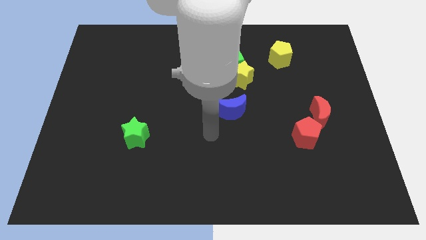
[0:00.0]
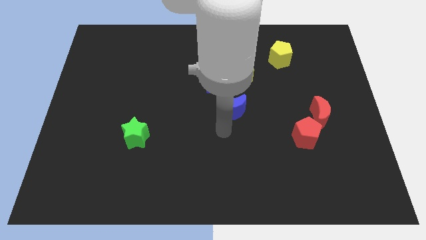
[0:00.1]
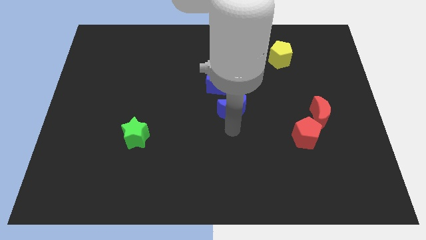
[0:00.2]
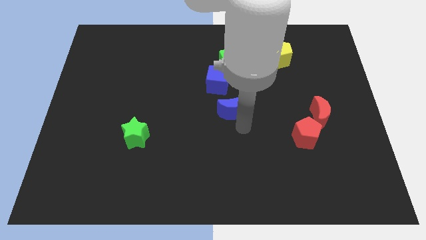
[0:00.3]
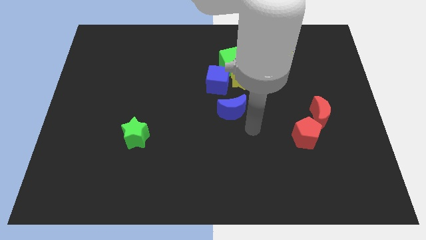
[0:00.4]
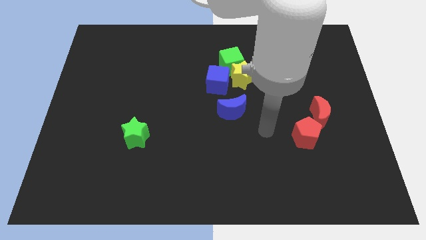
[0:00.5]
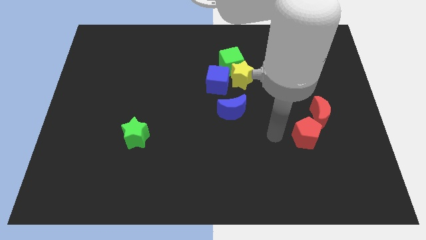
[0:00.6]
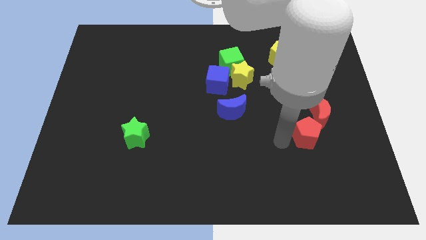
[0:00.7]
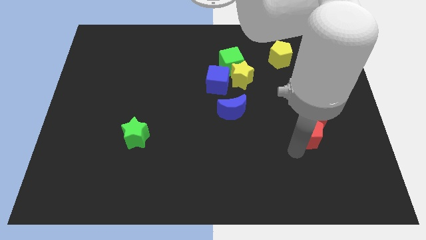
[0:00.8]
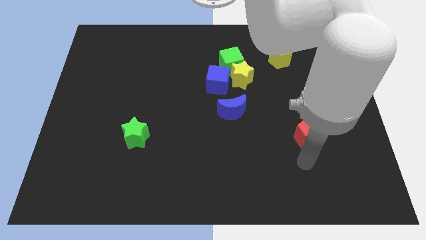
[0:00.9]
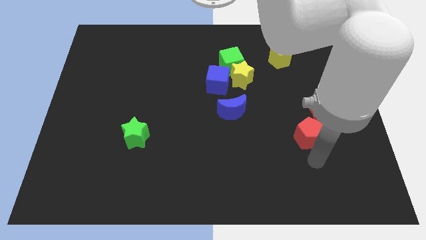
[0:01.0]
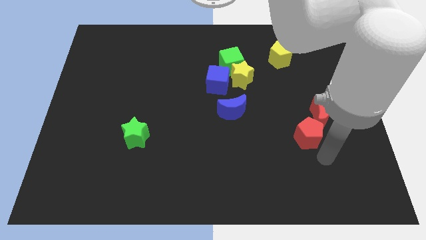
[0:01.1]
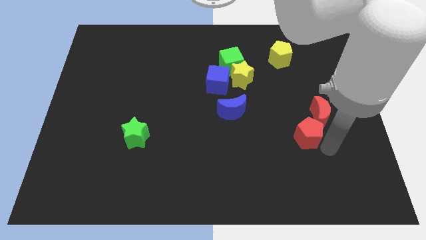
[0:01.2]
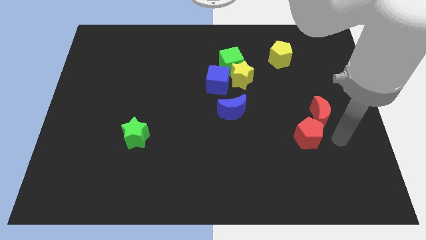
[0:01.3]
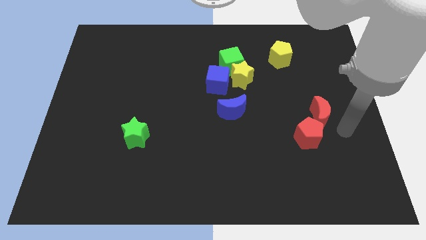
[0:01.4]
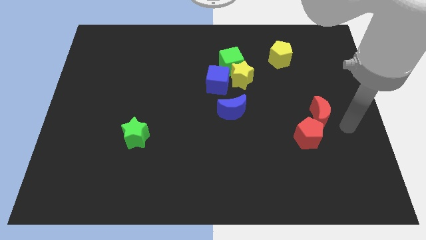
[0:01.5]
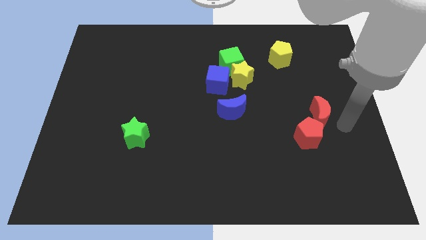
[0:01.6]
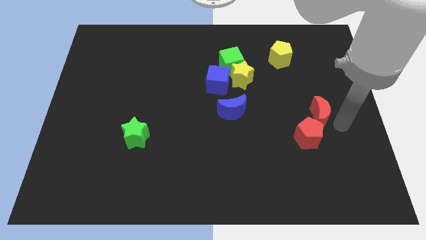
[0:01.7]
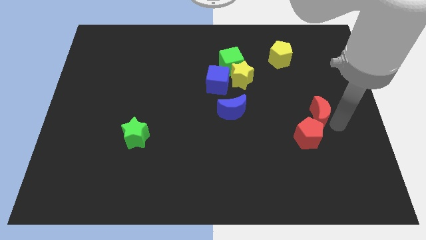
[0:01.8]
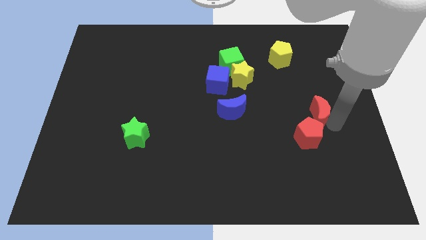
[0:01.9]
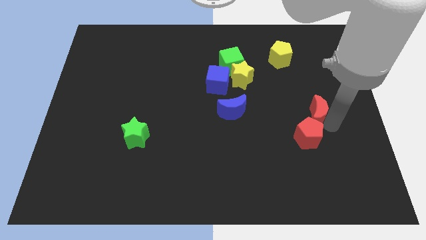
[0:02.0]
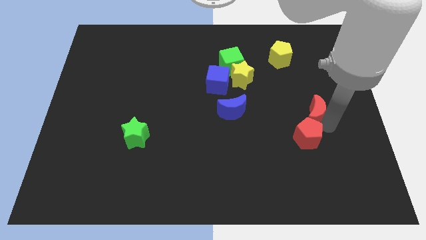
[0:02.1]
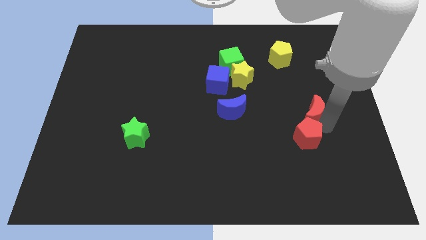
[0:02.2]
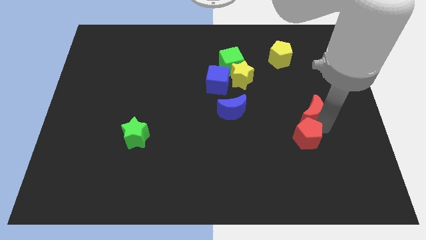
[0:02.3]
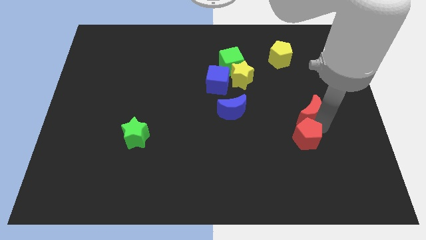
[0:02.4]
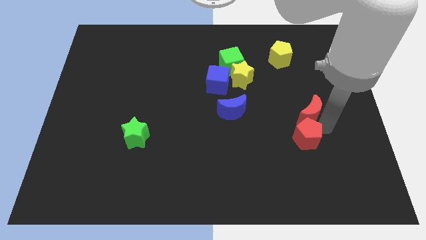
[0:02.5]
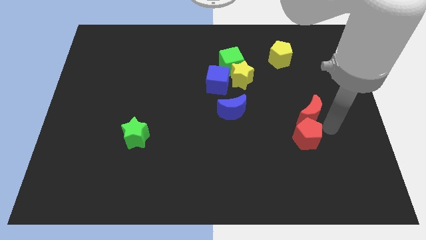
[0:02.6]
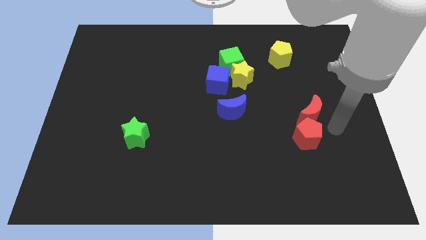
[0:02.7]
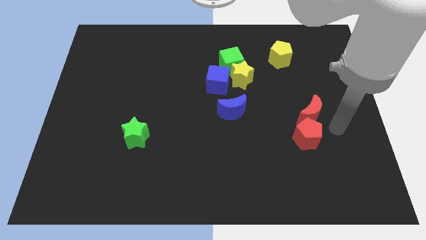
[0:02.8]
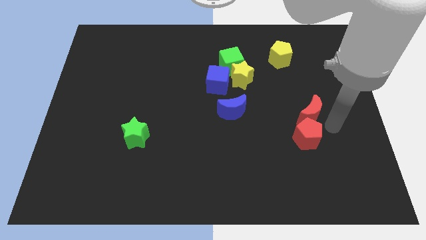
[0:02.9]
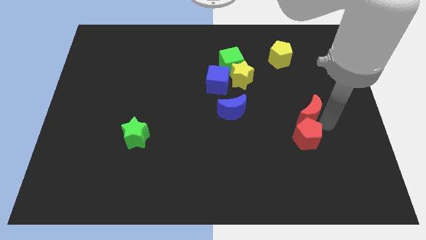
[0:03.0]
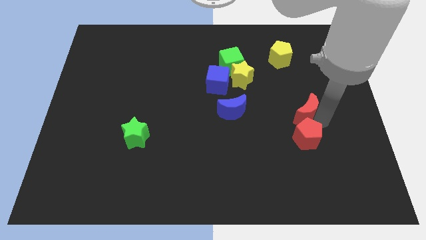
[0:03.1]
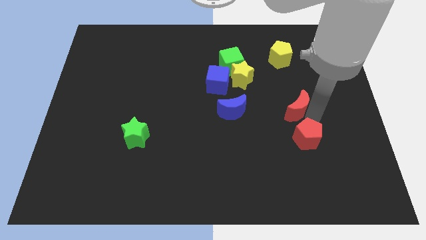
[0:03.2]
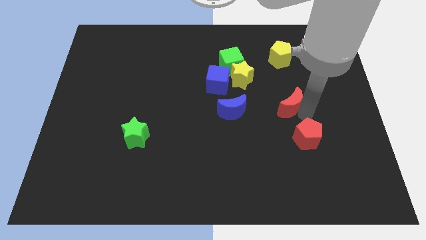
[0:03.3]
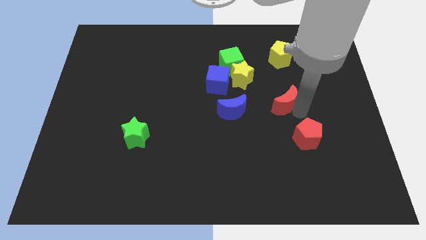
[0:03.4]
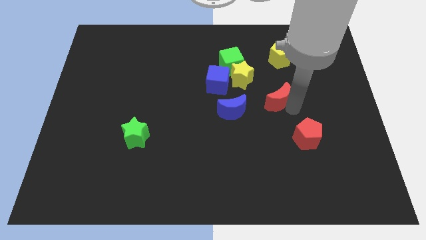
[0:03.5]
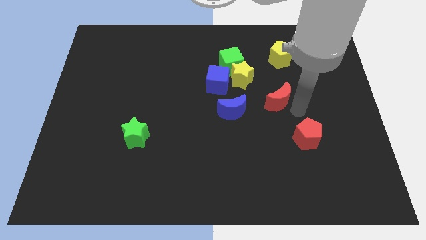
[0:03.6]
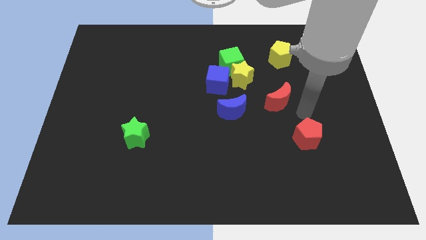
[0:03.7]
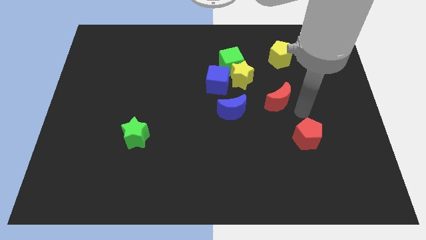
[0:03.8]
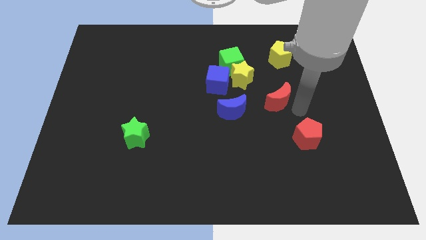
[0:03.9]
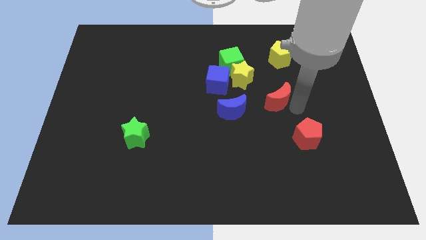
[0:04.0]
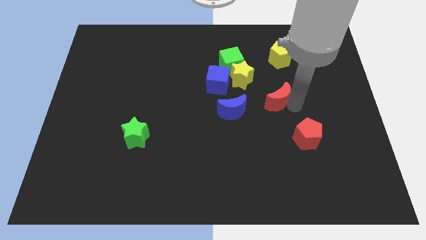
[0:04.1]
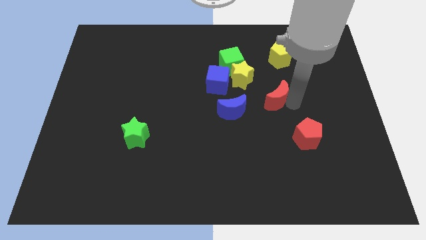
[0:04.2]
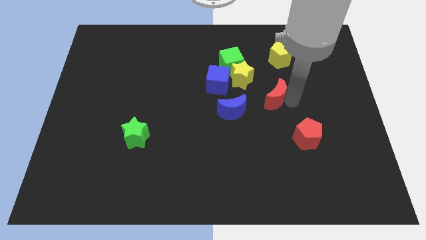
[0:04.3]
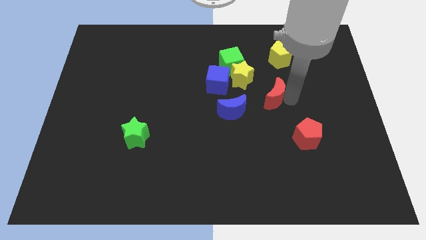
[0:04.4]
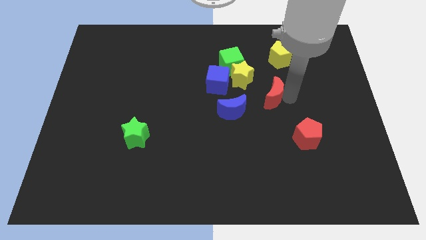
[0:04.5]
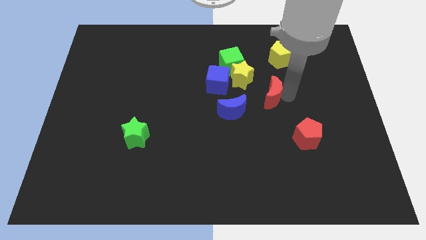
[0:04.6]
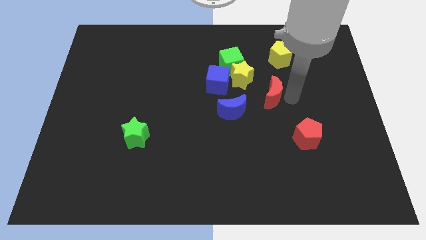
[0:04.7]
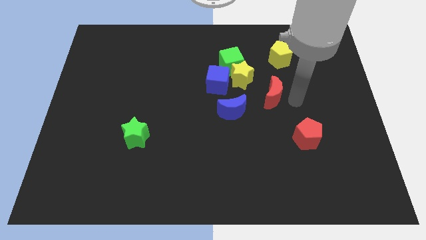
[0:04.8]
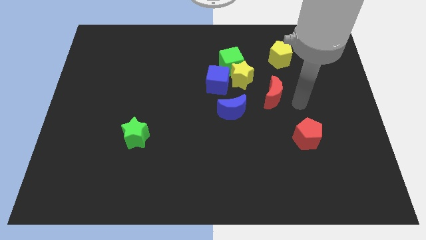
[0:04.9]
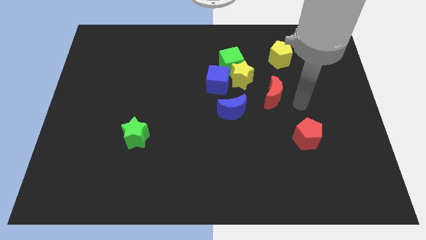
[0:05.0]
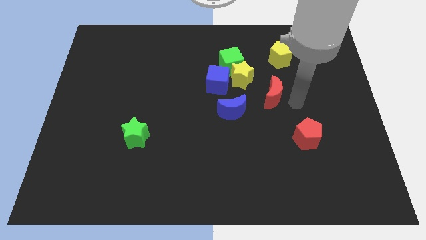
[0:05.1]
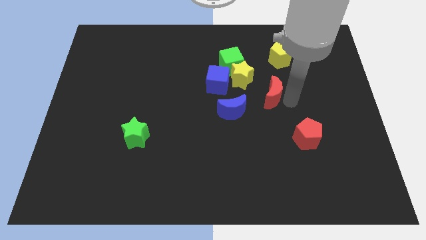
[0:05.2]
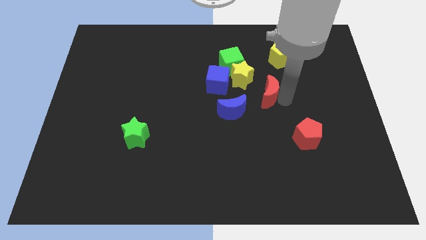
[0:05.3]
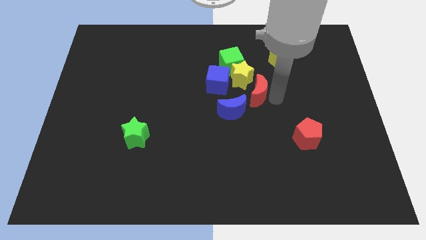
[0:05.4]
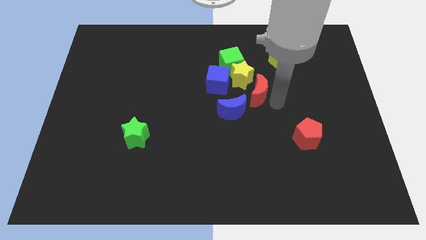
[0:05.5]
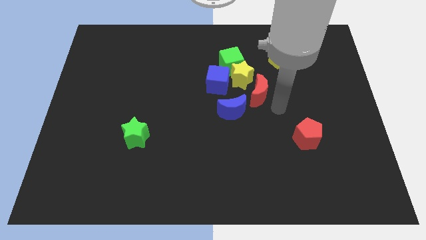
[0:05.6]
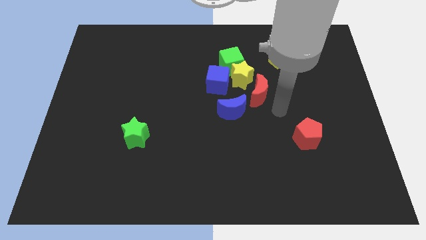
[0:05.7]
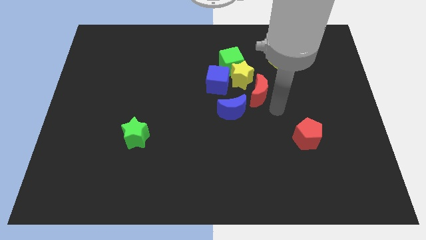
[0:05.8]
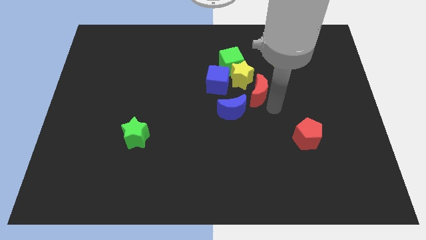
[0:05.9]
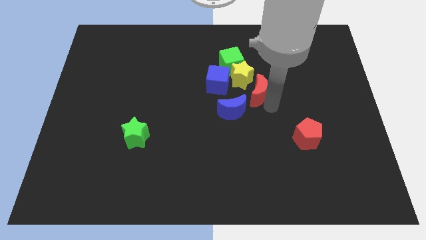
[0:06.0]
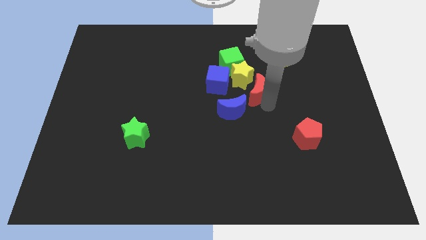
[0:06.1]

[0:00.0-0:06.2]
put the red moon next to the yellow star
